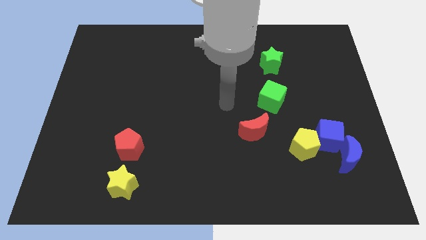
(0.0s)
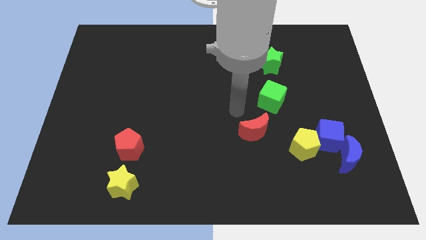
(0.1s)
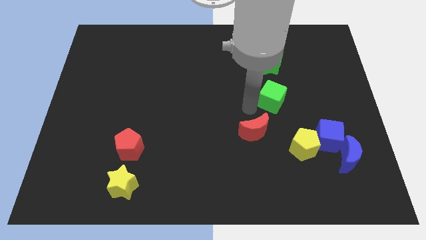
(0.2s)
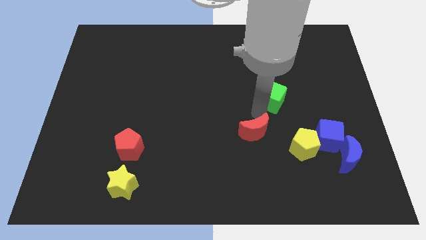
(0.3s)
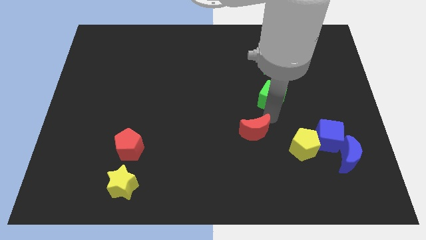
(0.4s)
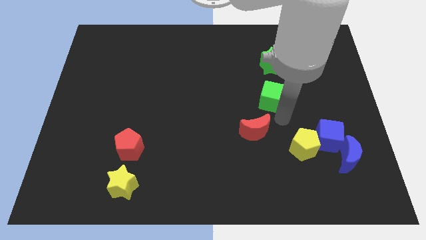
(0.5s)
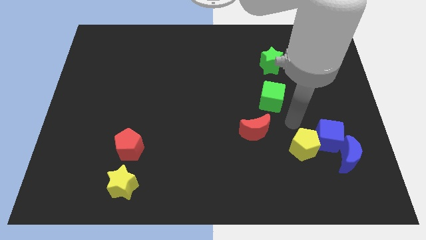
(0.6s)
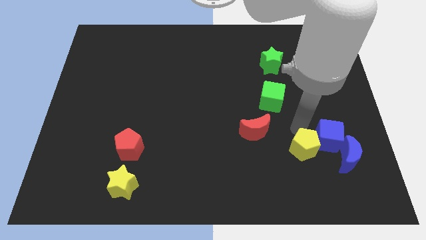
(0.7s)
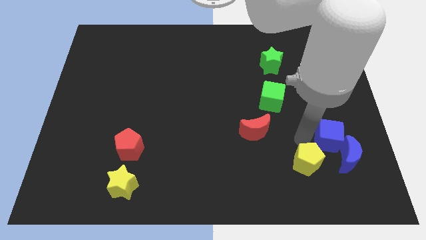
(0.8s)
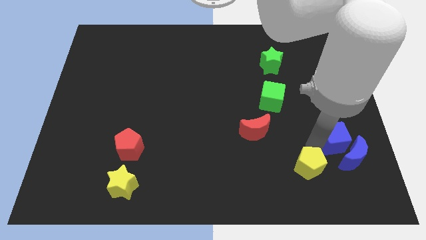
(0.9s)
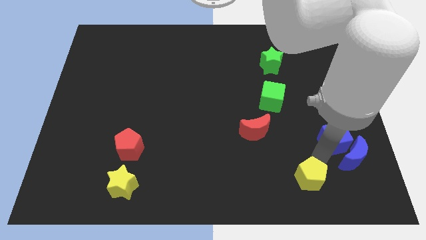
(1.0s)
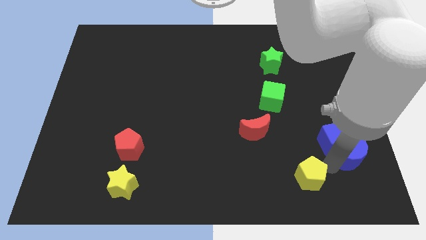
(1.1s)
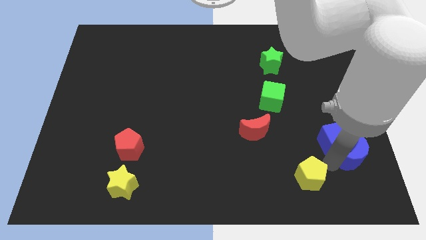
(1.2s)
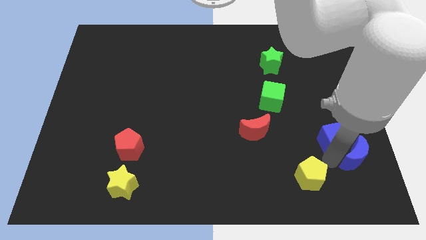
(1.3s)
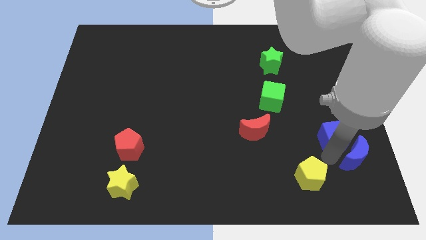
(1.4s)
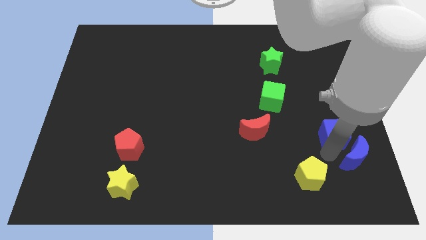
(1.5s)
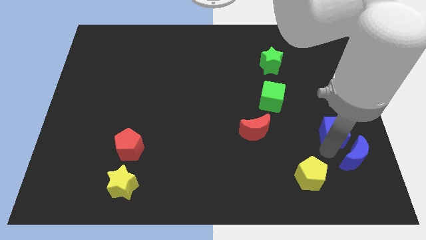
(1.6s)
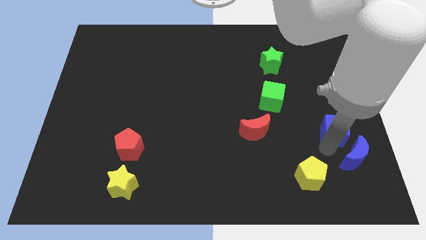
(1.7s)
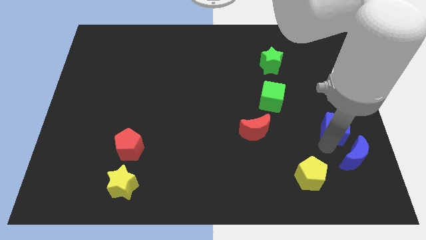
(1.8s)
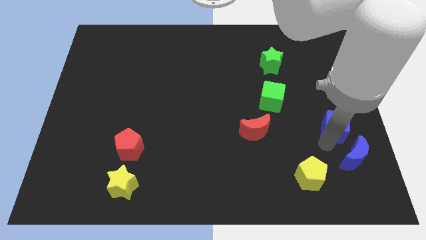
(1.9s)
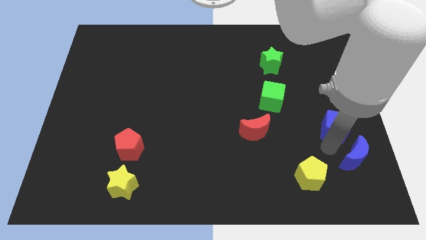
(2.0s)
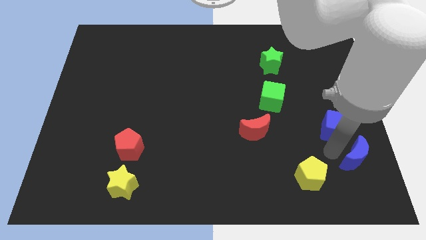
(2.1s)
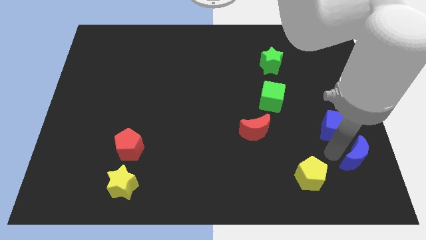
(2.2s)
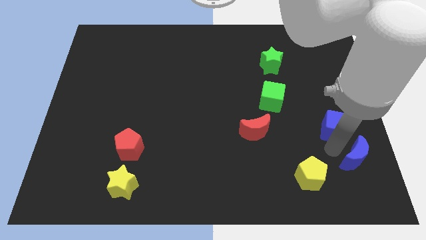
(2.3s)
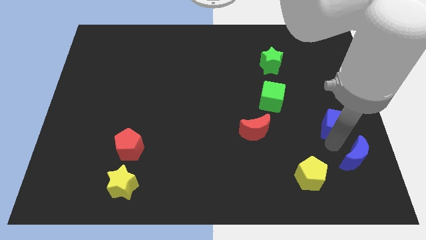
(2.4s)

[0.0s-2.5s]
pull the blue cube apart from the yellow pentagon and blue moon

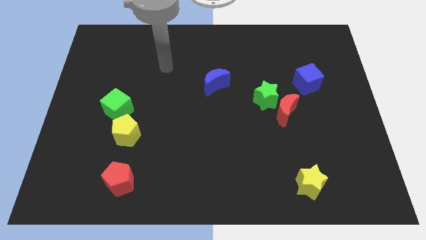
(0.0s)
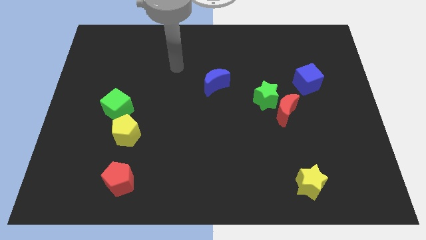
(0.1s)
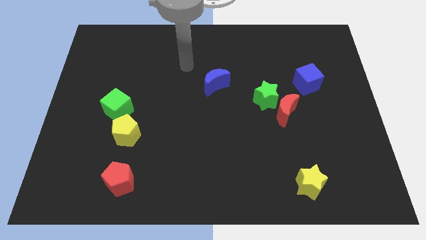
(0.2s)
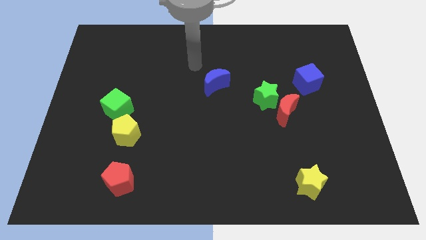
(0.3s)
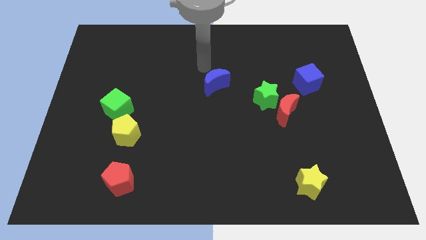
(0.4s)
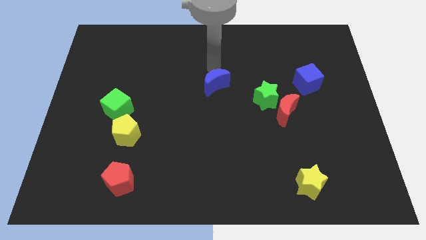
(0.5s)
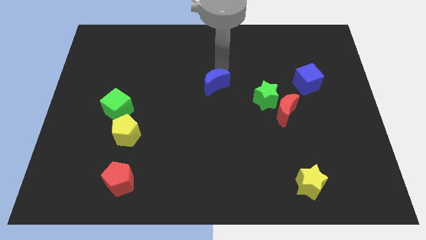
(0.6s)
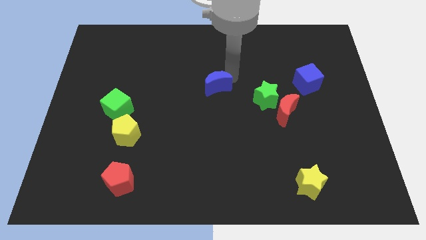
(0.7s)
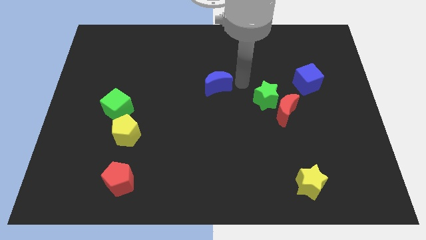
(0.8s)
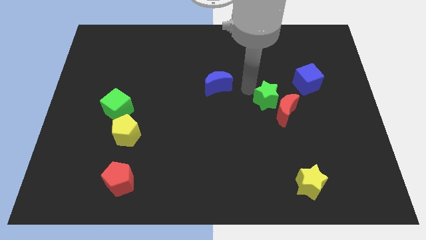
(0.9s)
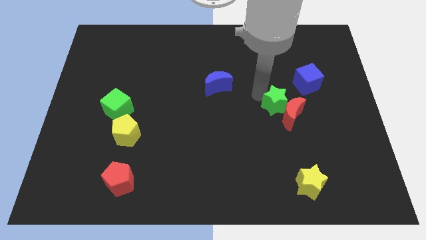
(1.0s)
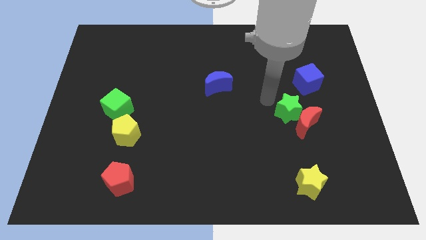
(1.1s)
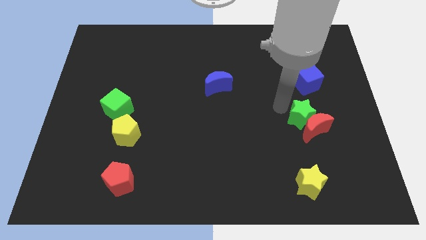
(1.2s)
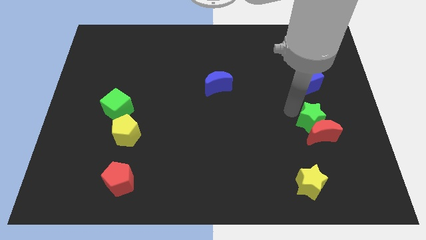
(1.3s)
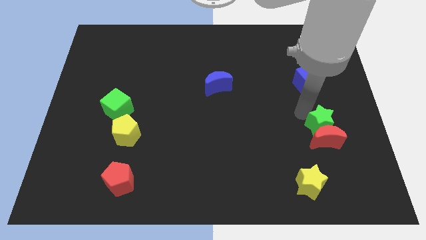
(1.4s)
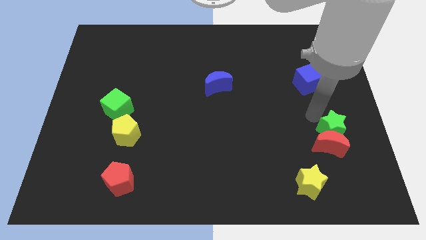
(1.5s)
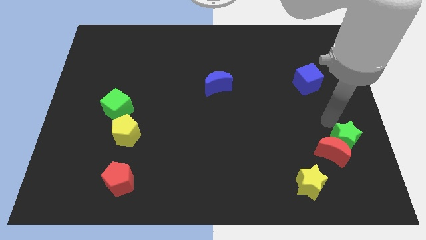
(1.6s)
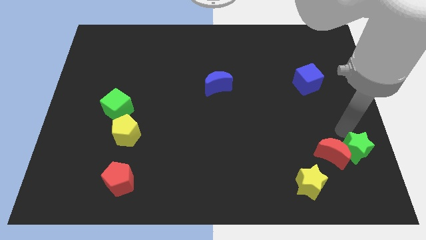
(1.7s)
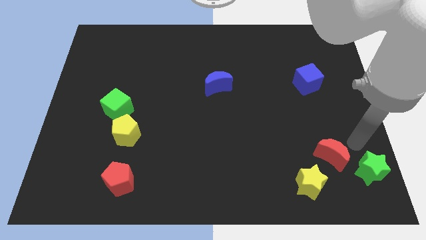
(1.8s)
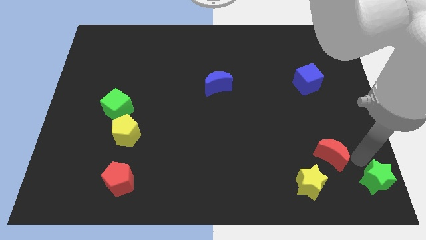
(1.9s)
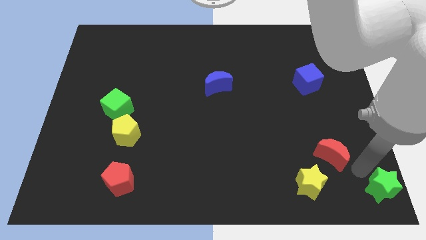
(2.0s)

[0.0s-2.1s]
separate the red moon from the green star

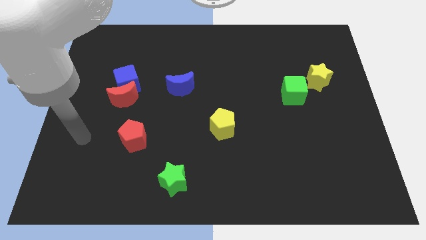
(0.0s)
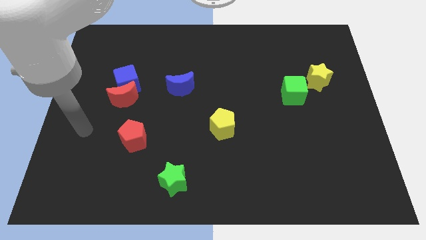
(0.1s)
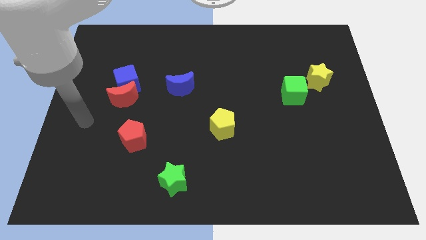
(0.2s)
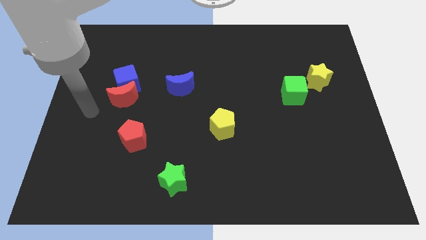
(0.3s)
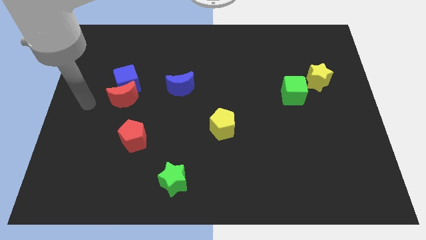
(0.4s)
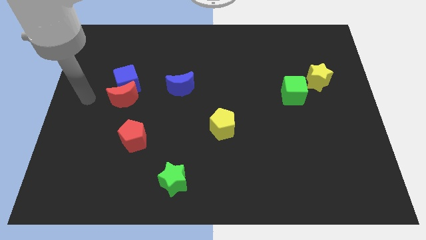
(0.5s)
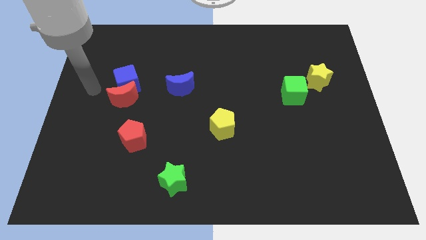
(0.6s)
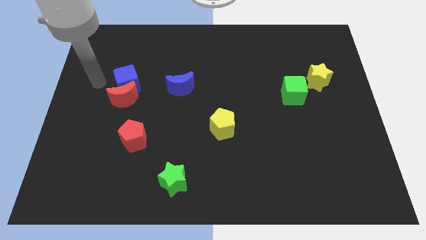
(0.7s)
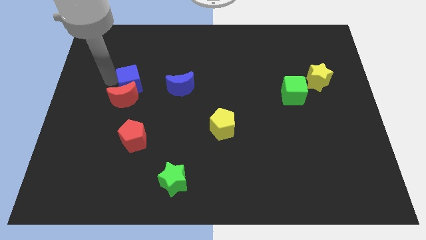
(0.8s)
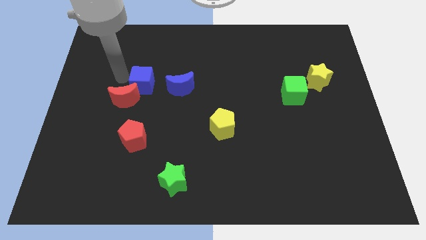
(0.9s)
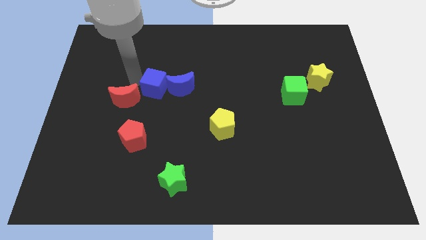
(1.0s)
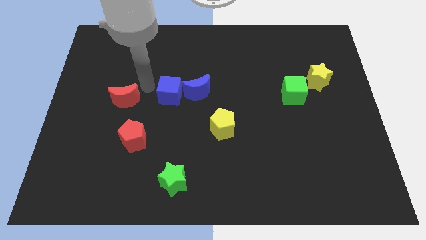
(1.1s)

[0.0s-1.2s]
move the red moon away from the blue cube

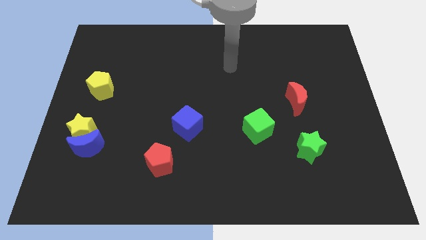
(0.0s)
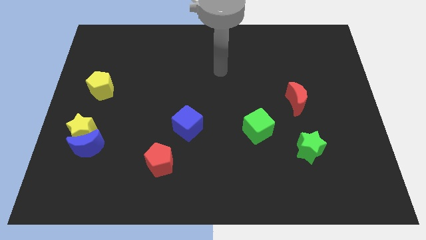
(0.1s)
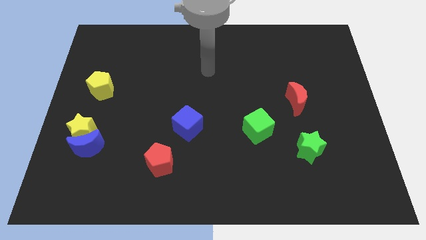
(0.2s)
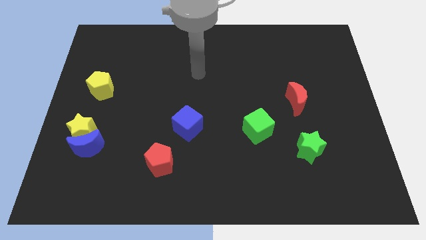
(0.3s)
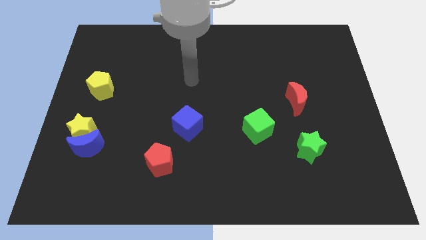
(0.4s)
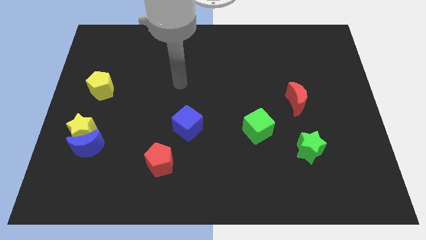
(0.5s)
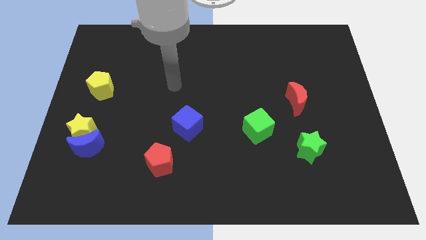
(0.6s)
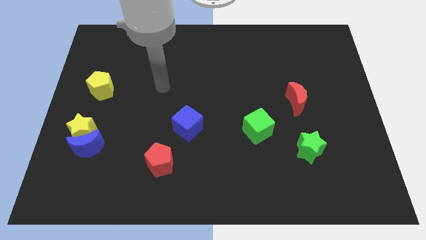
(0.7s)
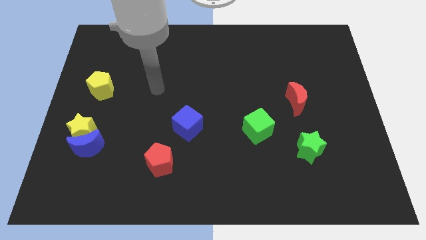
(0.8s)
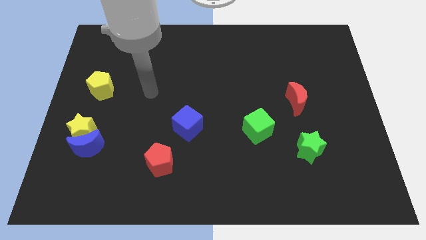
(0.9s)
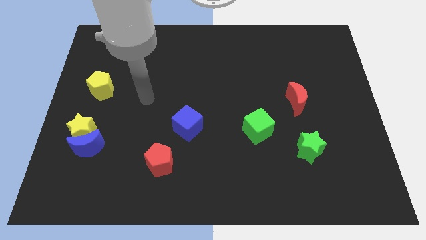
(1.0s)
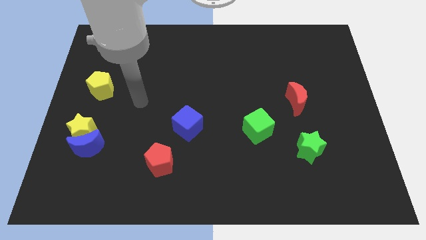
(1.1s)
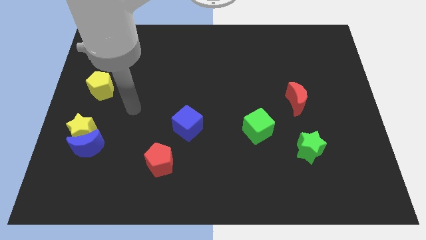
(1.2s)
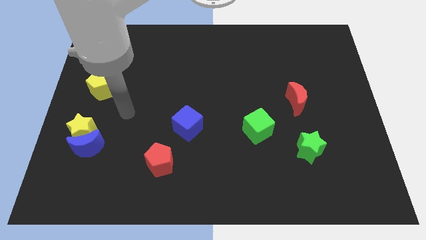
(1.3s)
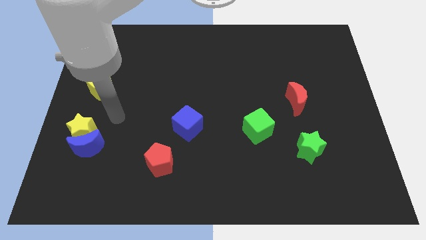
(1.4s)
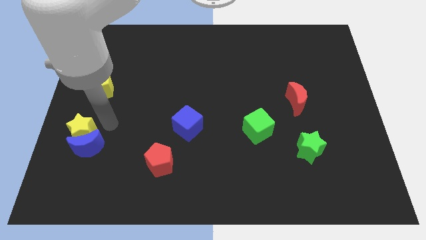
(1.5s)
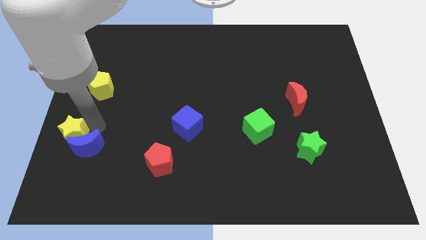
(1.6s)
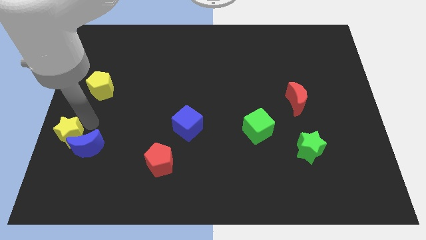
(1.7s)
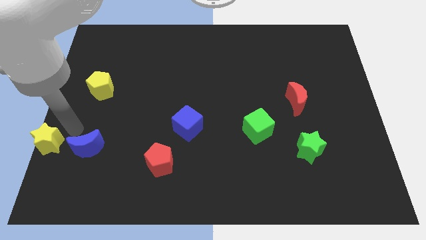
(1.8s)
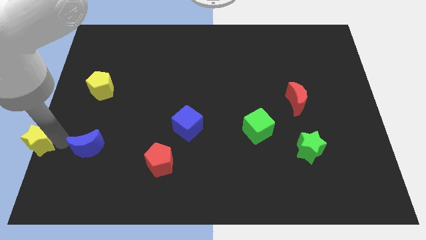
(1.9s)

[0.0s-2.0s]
pull the blue moon apart from the yellow star

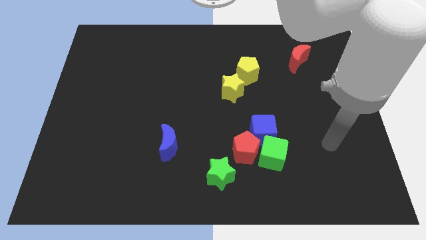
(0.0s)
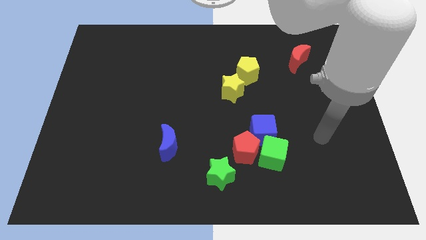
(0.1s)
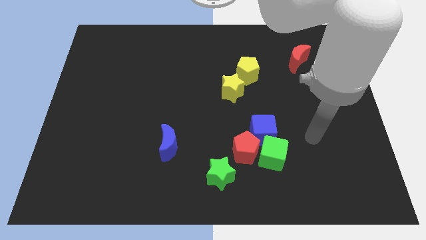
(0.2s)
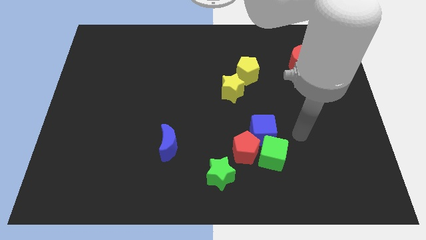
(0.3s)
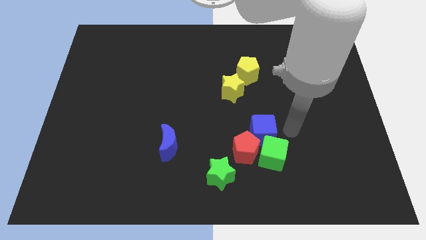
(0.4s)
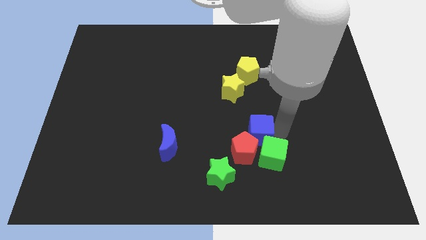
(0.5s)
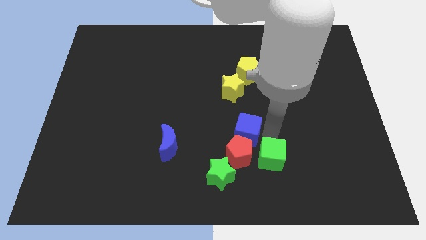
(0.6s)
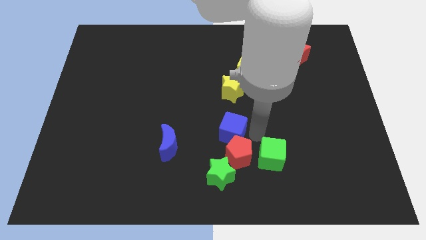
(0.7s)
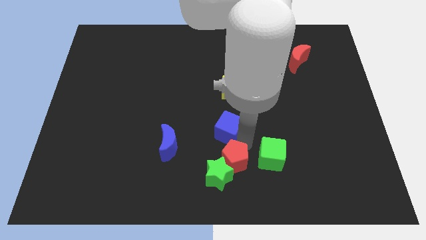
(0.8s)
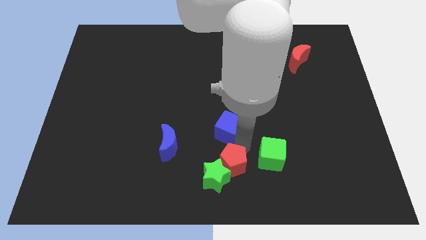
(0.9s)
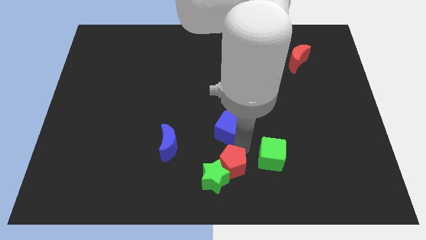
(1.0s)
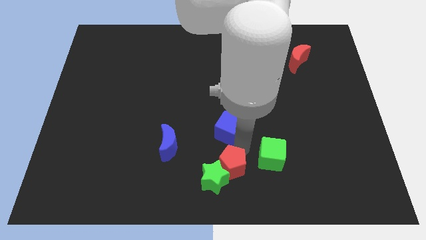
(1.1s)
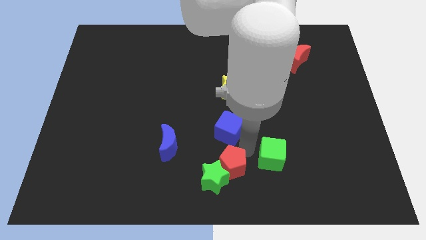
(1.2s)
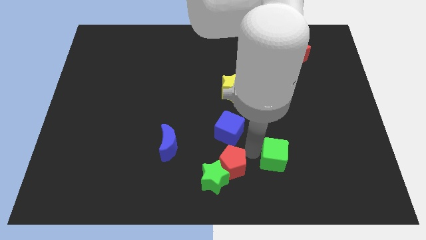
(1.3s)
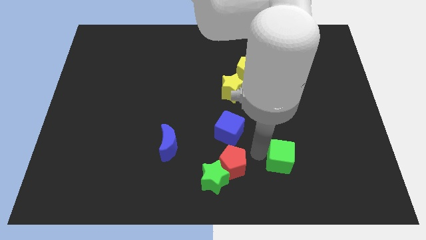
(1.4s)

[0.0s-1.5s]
move the green cube away from the red pentagon and blue cube
